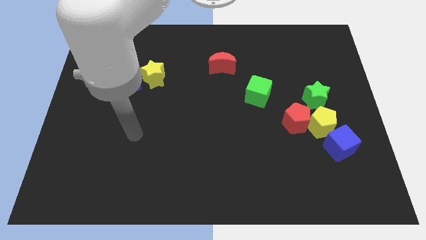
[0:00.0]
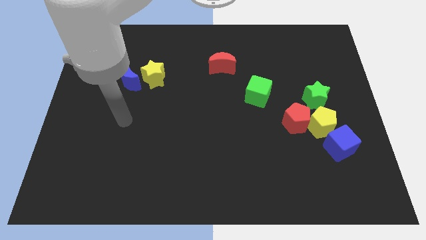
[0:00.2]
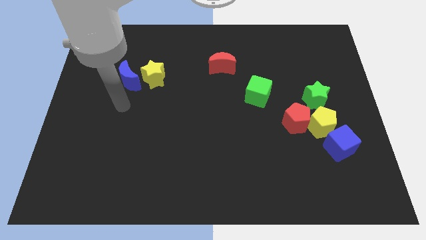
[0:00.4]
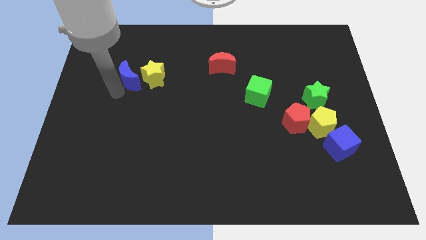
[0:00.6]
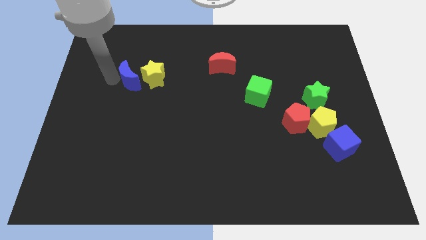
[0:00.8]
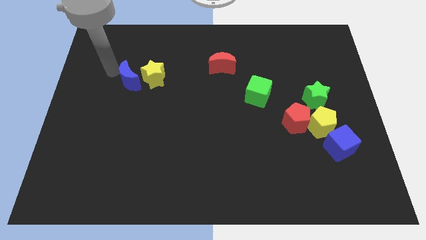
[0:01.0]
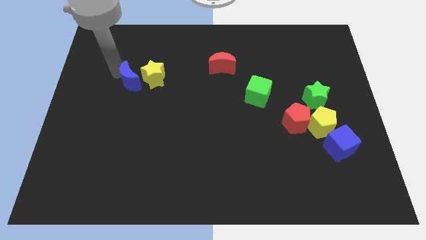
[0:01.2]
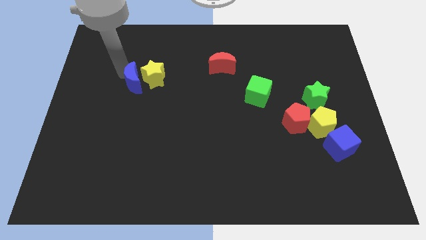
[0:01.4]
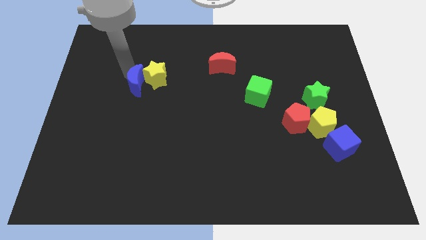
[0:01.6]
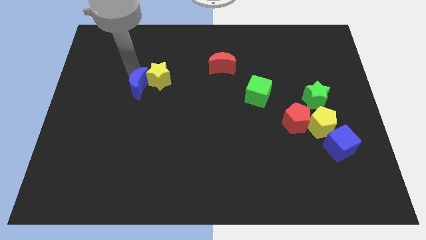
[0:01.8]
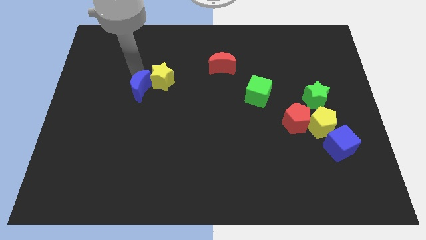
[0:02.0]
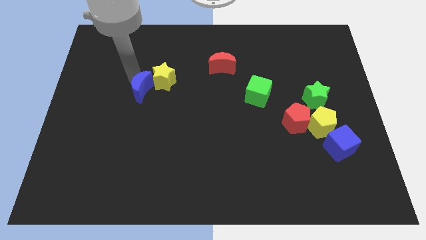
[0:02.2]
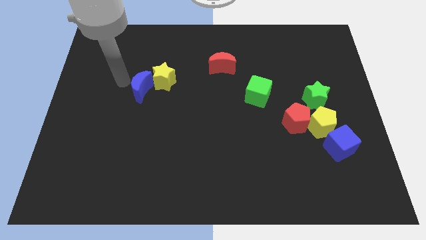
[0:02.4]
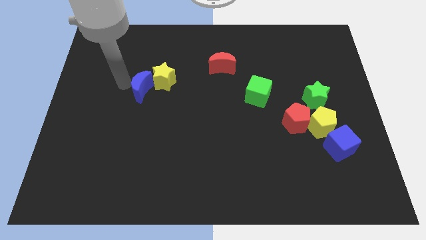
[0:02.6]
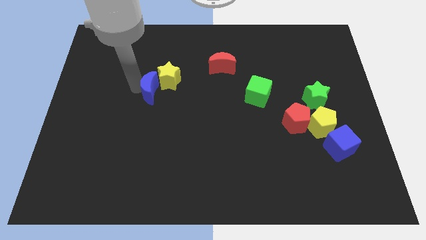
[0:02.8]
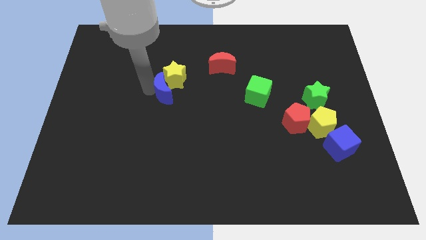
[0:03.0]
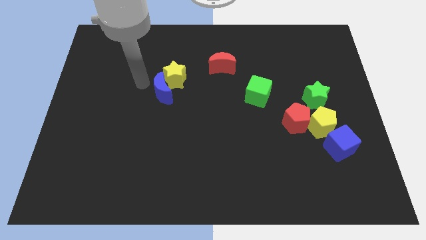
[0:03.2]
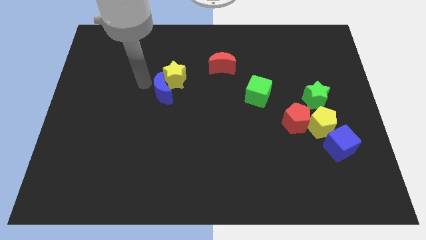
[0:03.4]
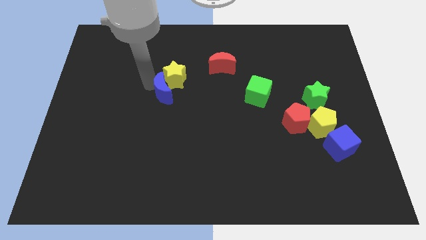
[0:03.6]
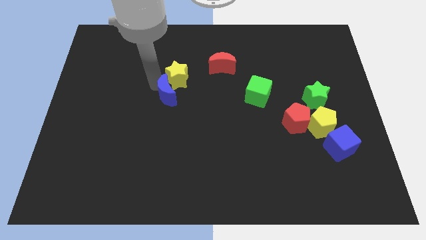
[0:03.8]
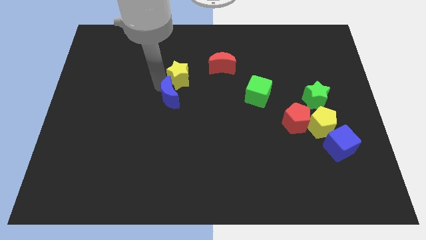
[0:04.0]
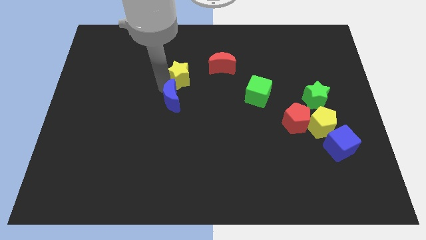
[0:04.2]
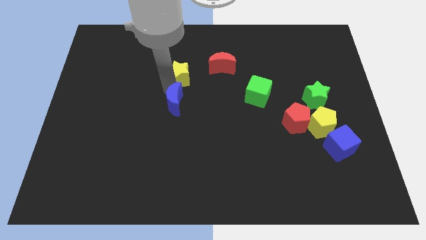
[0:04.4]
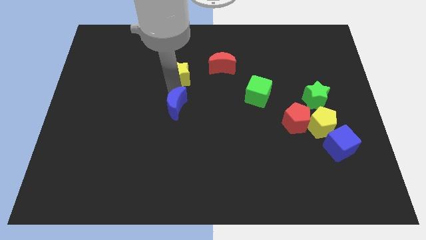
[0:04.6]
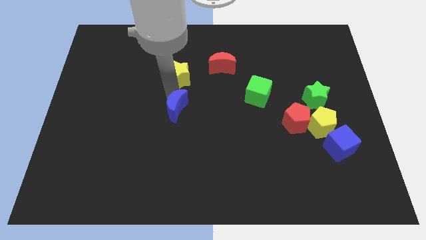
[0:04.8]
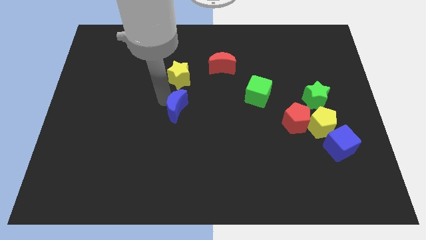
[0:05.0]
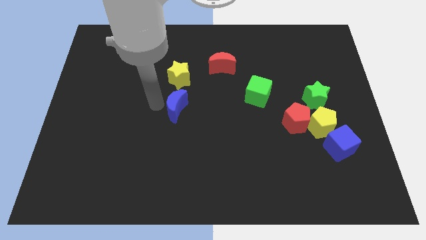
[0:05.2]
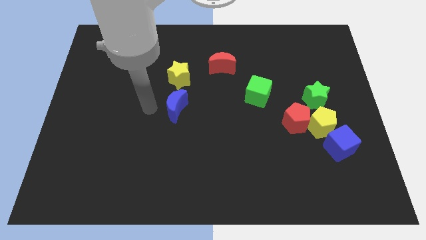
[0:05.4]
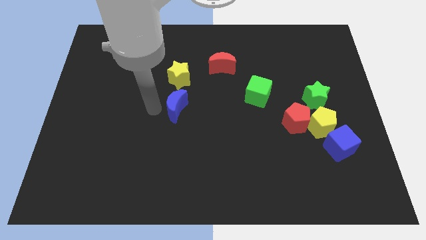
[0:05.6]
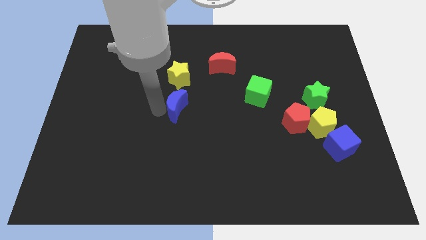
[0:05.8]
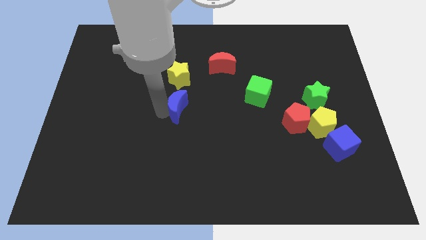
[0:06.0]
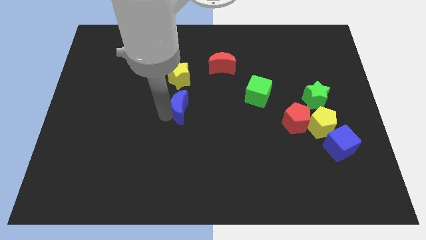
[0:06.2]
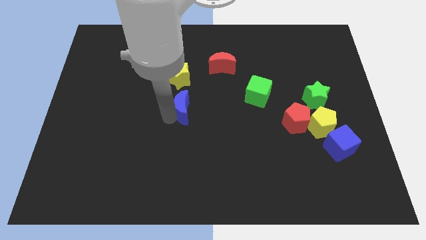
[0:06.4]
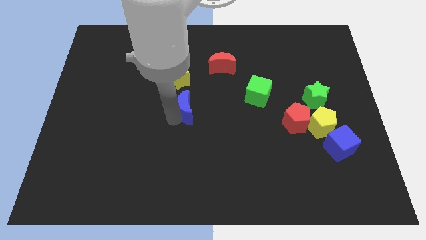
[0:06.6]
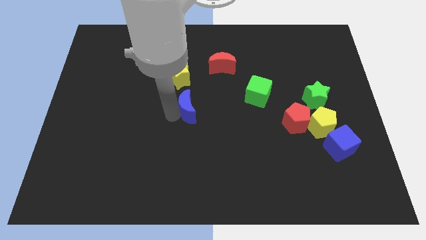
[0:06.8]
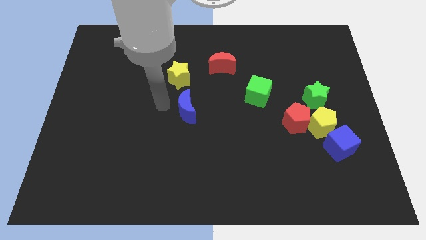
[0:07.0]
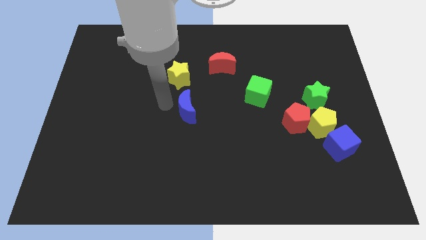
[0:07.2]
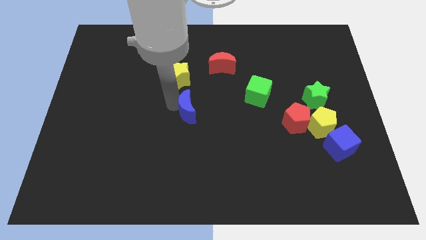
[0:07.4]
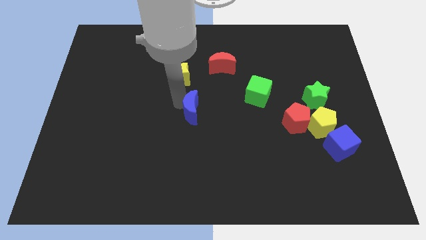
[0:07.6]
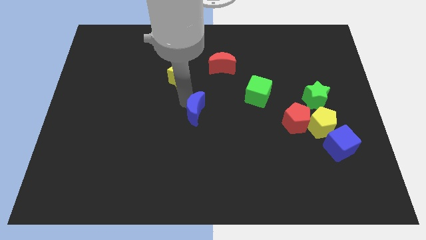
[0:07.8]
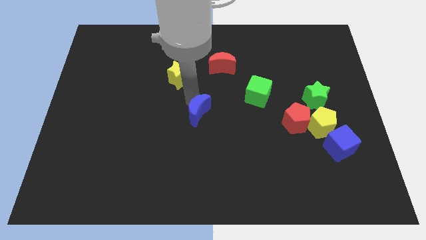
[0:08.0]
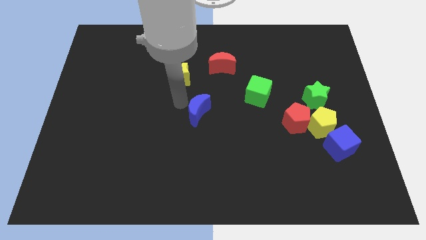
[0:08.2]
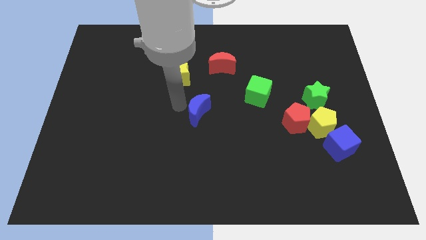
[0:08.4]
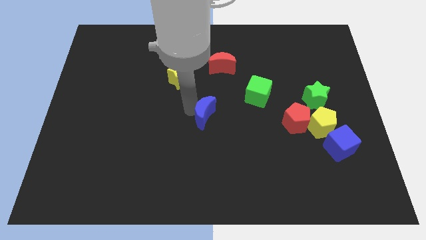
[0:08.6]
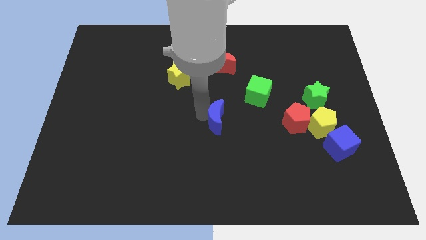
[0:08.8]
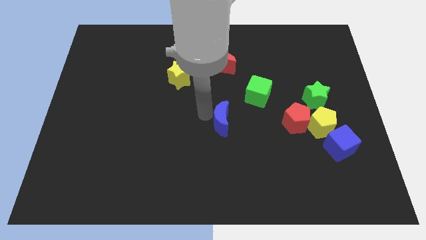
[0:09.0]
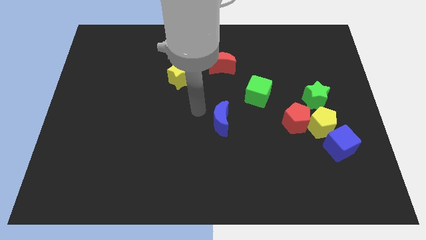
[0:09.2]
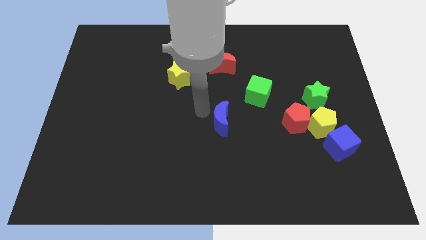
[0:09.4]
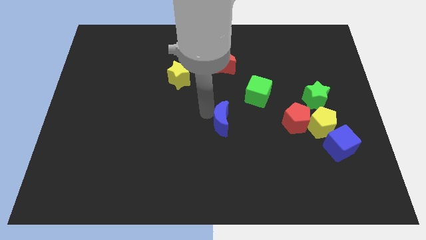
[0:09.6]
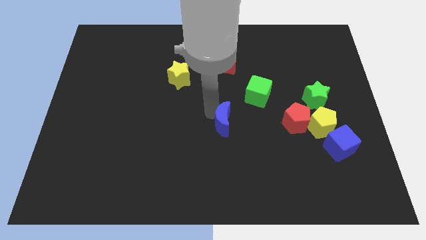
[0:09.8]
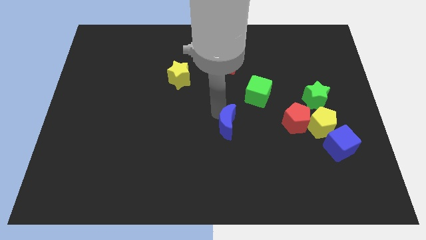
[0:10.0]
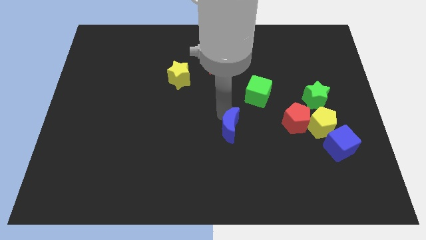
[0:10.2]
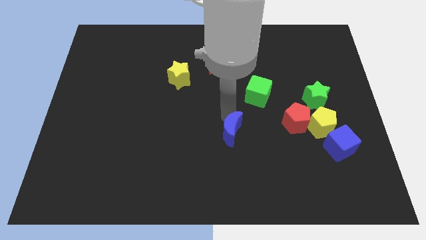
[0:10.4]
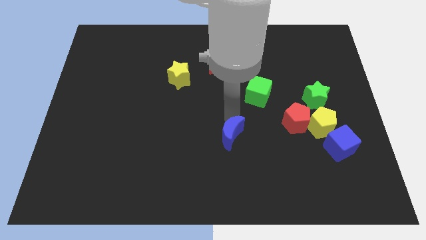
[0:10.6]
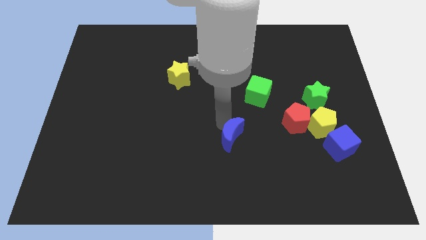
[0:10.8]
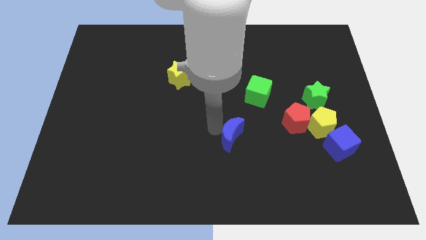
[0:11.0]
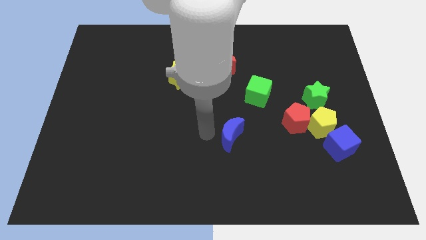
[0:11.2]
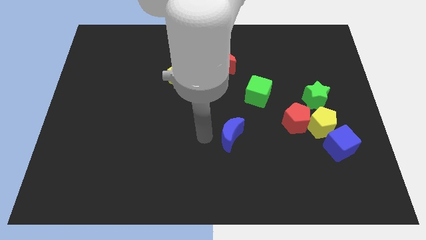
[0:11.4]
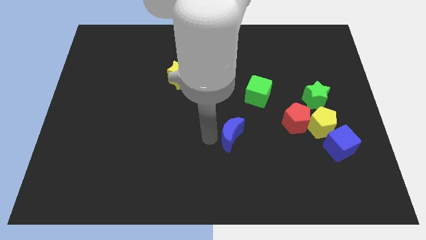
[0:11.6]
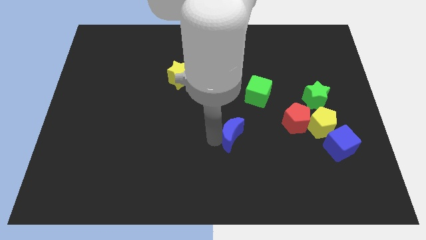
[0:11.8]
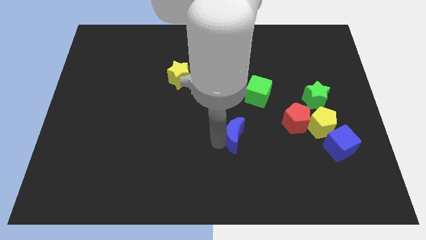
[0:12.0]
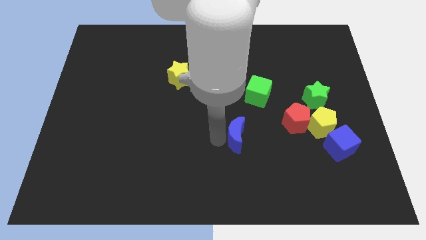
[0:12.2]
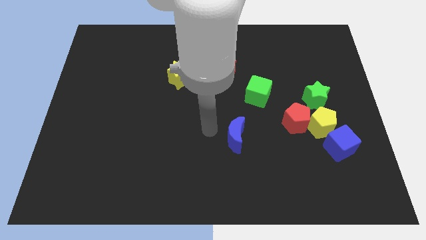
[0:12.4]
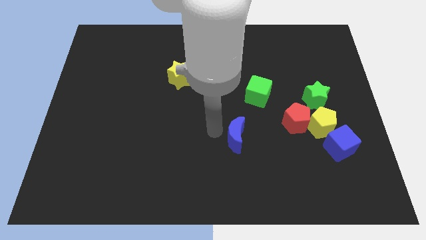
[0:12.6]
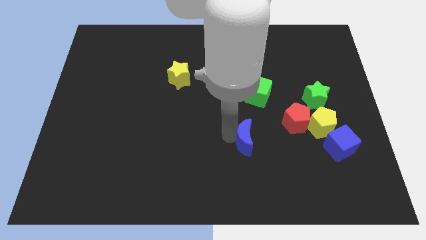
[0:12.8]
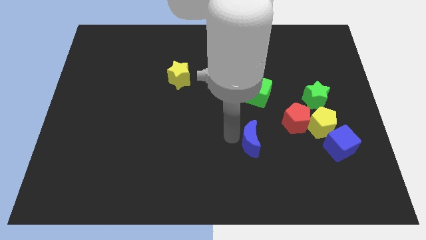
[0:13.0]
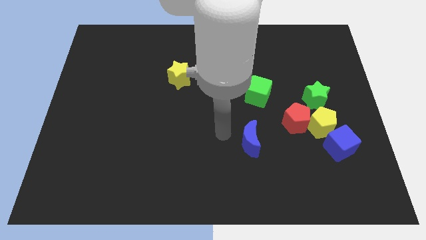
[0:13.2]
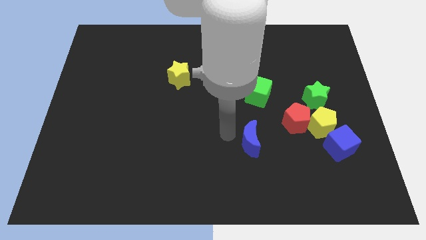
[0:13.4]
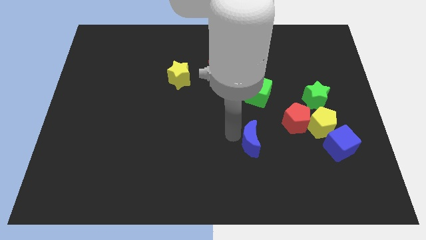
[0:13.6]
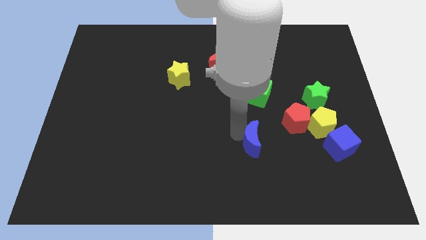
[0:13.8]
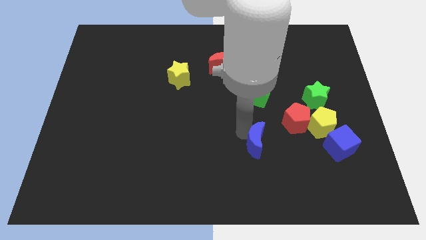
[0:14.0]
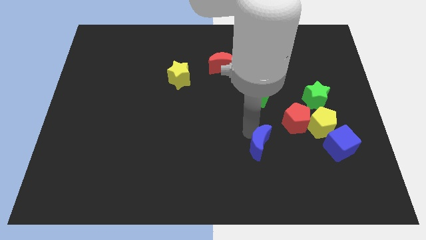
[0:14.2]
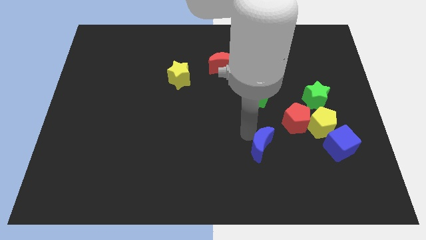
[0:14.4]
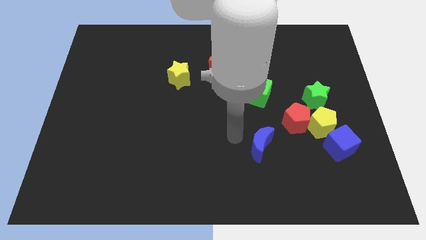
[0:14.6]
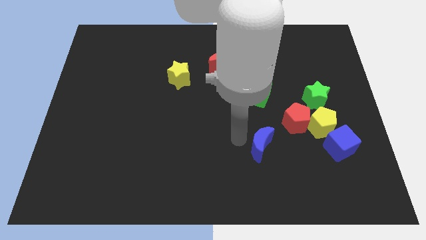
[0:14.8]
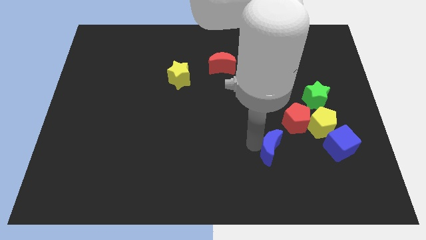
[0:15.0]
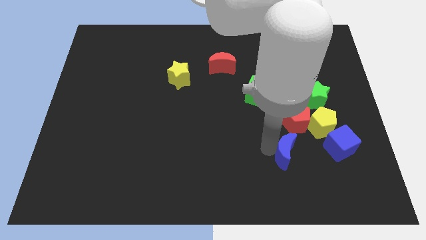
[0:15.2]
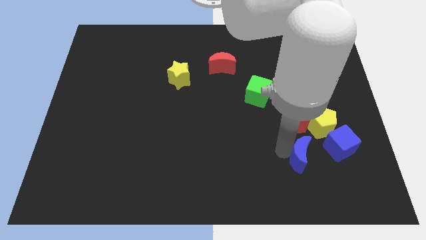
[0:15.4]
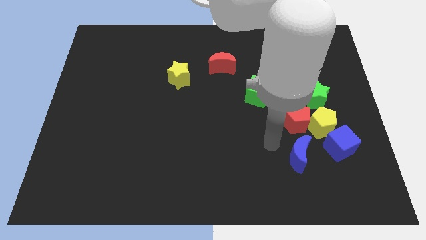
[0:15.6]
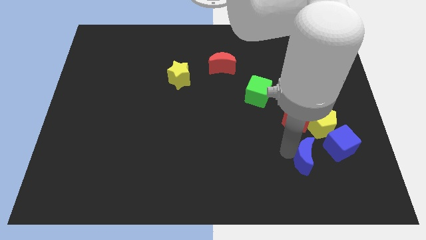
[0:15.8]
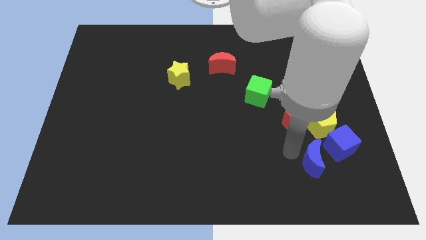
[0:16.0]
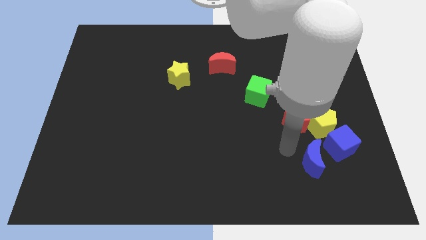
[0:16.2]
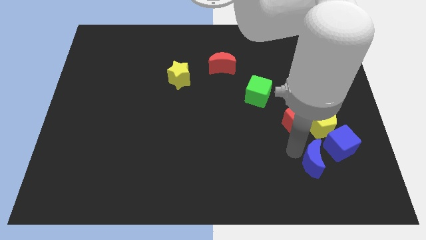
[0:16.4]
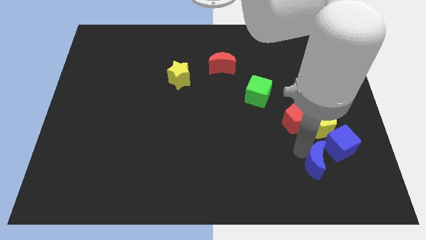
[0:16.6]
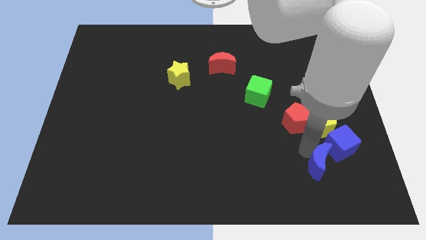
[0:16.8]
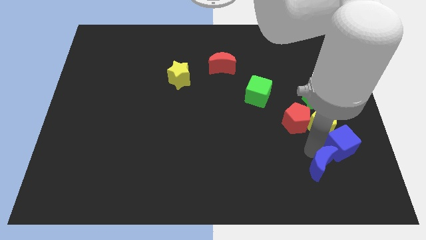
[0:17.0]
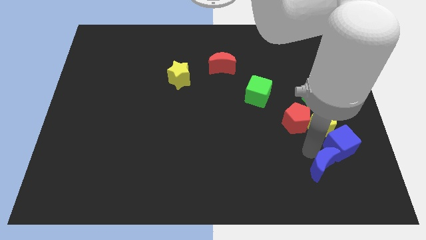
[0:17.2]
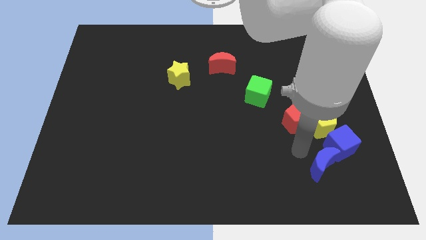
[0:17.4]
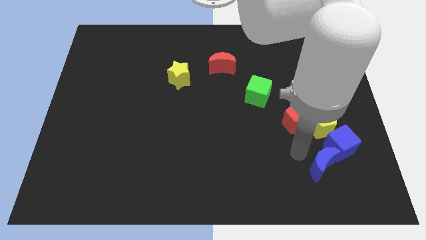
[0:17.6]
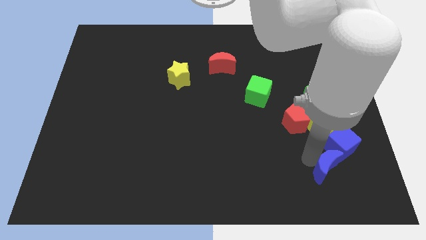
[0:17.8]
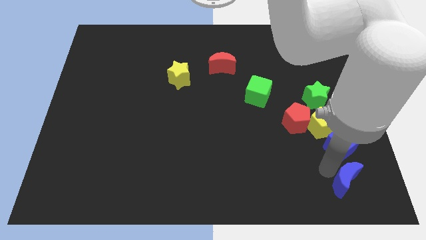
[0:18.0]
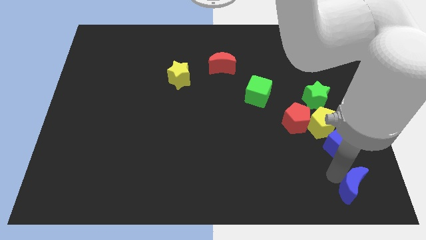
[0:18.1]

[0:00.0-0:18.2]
slide the blue moon to the bottom right
